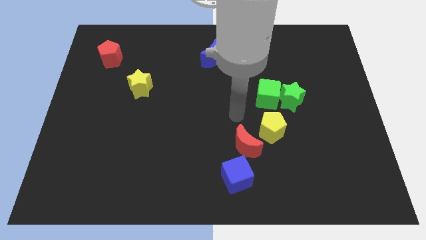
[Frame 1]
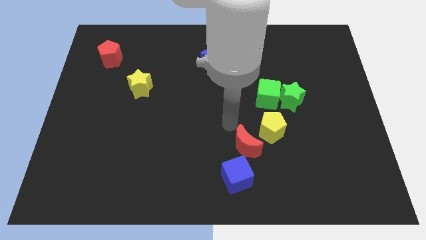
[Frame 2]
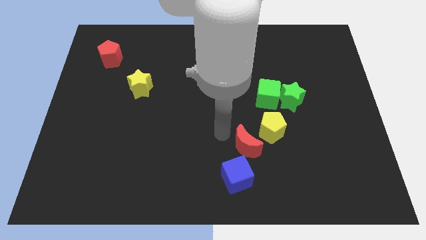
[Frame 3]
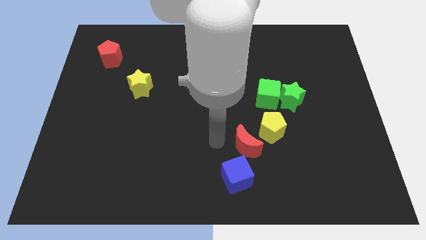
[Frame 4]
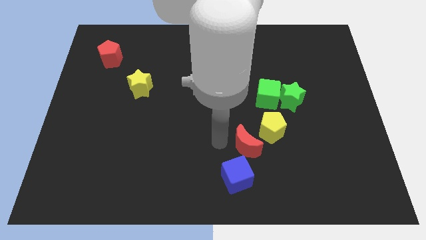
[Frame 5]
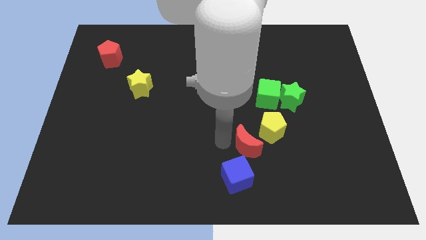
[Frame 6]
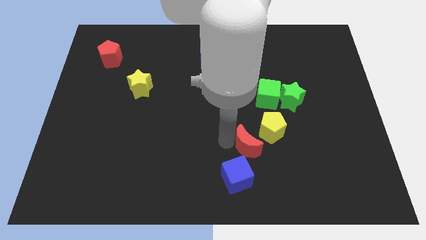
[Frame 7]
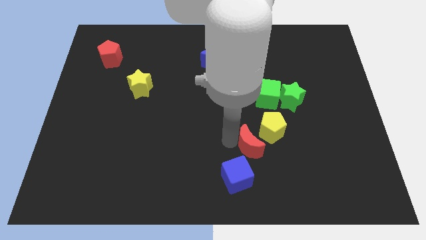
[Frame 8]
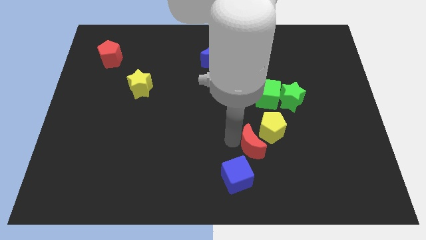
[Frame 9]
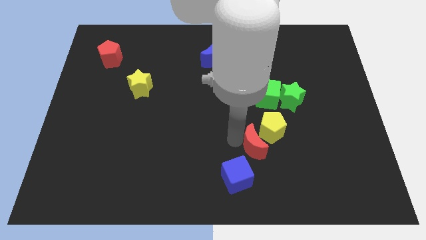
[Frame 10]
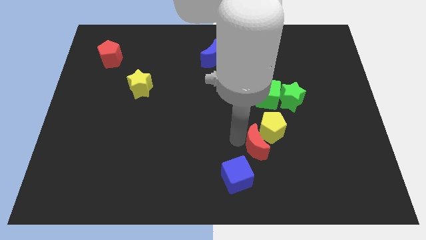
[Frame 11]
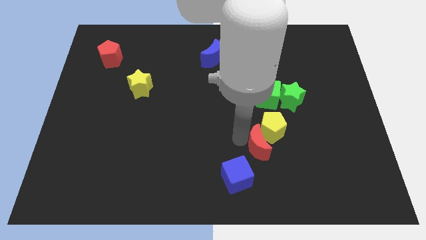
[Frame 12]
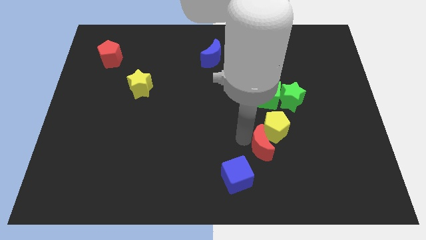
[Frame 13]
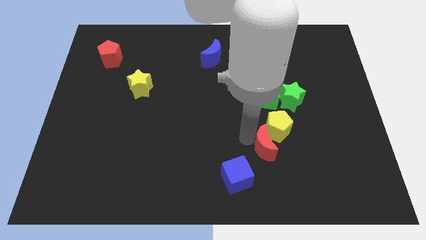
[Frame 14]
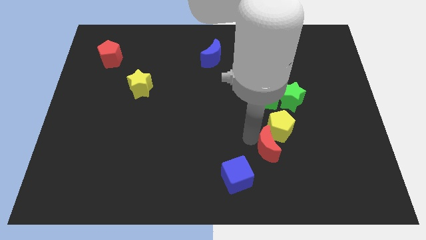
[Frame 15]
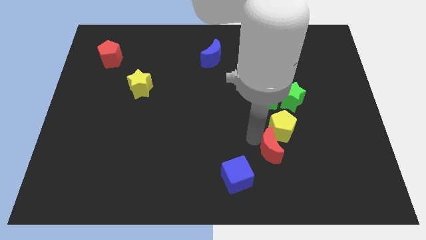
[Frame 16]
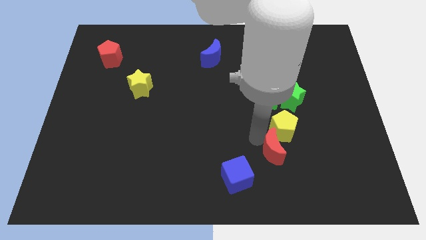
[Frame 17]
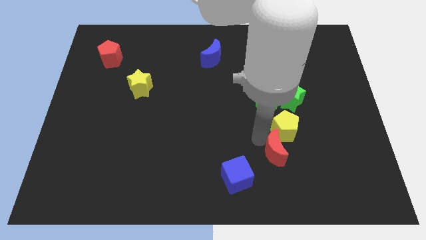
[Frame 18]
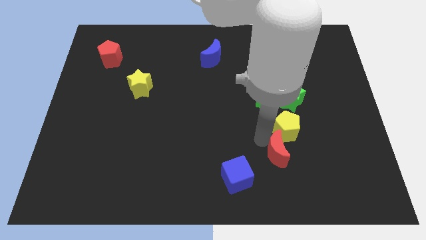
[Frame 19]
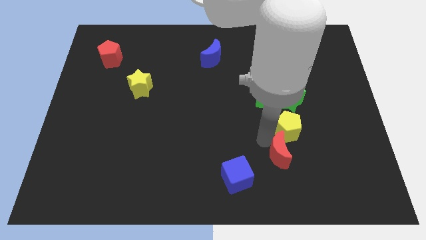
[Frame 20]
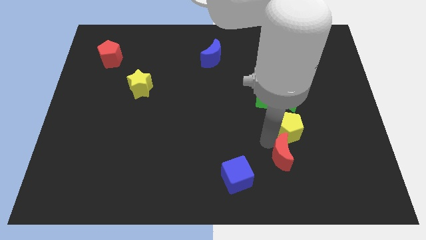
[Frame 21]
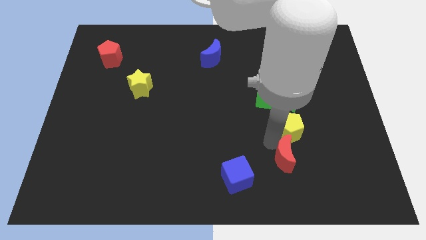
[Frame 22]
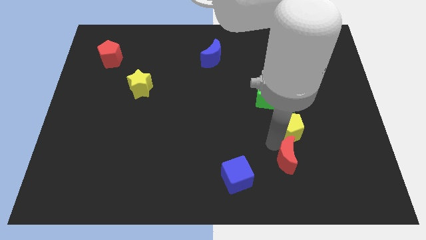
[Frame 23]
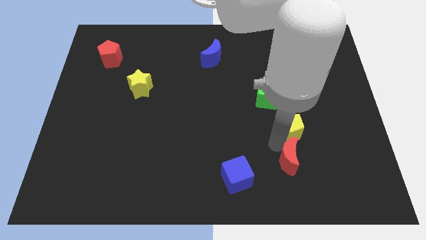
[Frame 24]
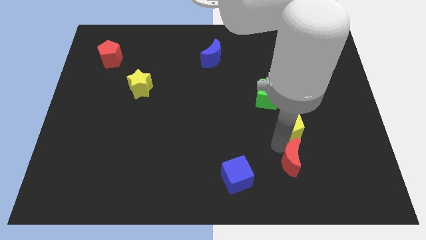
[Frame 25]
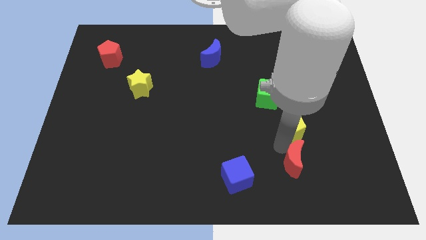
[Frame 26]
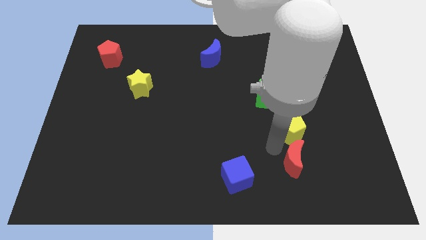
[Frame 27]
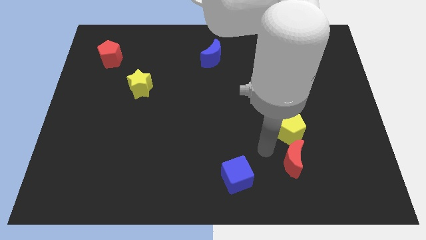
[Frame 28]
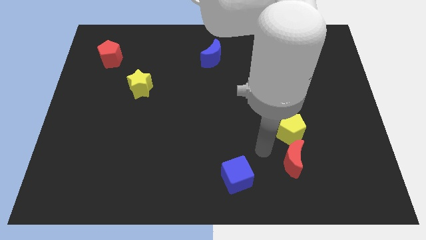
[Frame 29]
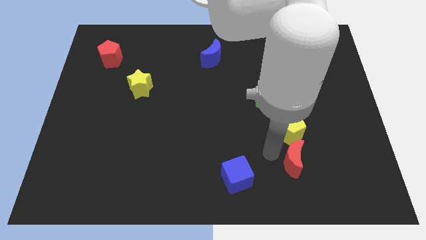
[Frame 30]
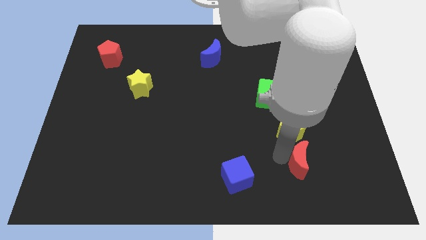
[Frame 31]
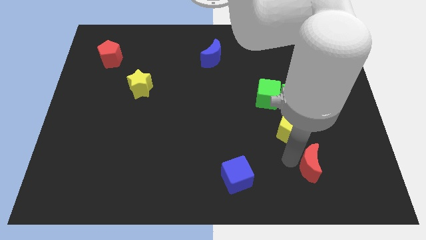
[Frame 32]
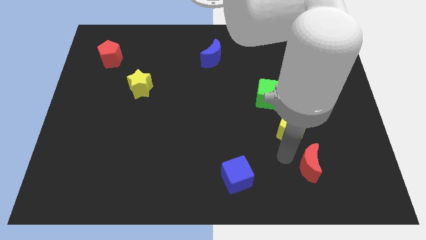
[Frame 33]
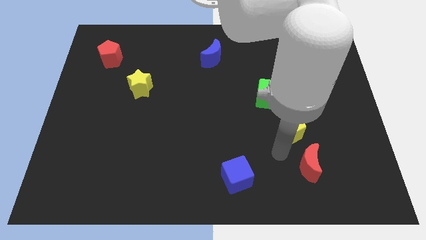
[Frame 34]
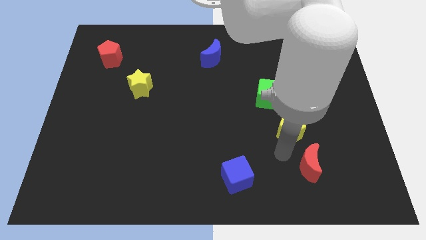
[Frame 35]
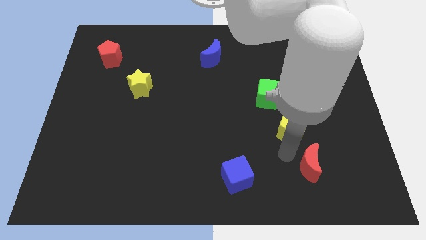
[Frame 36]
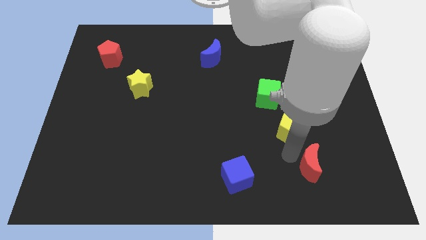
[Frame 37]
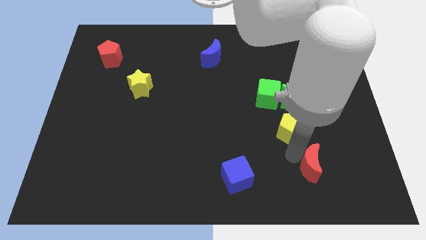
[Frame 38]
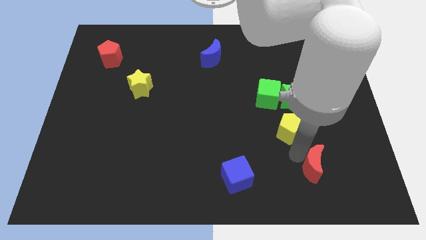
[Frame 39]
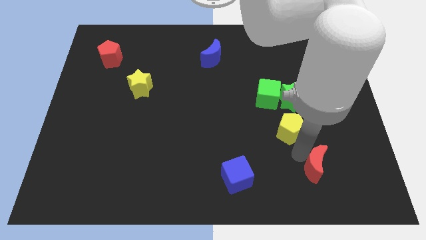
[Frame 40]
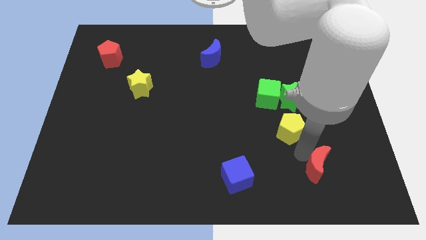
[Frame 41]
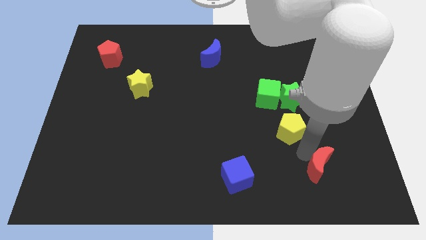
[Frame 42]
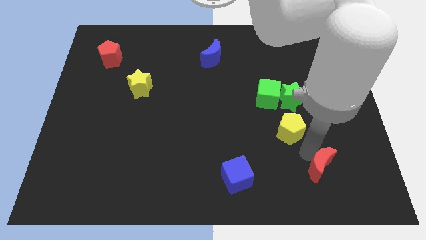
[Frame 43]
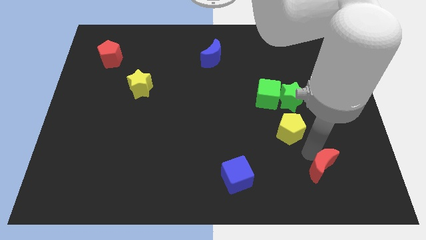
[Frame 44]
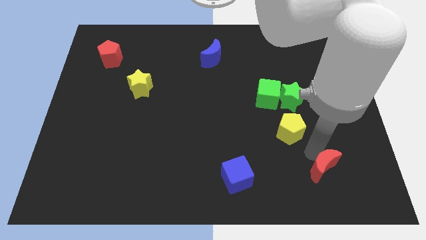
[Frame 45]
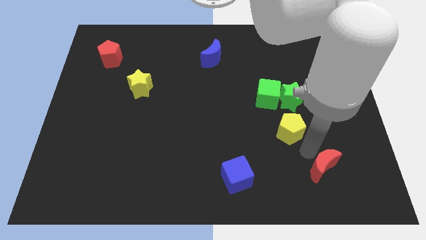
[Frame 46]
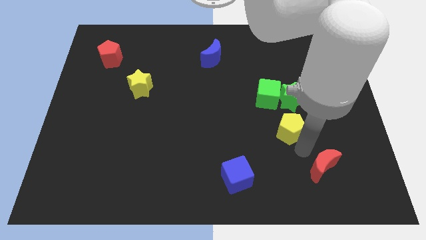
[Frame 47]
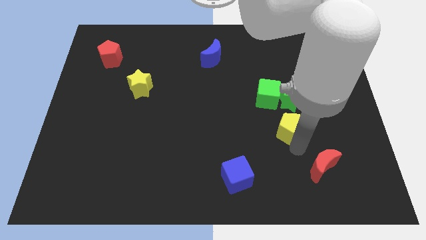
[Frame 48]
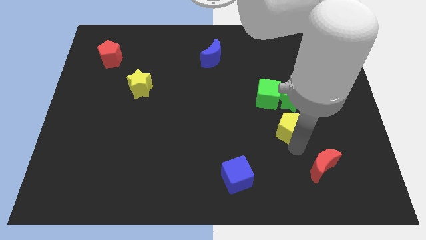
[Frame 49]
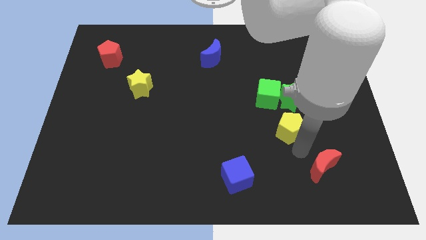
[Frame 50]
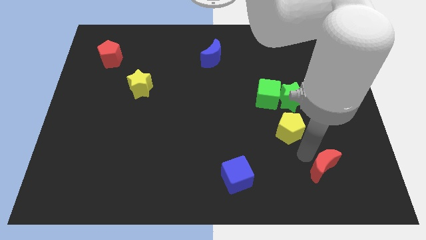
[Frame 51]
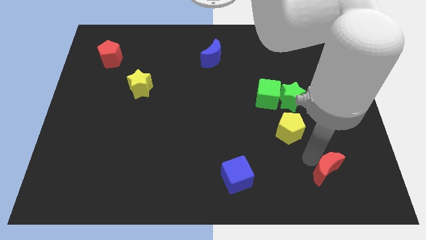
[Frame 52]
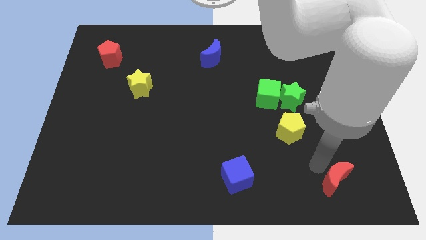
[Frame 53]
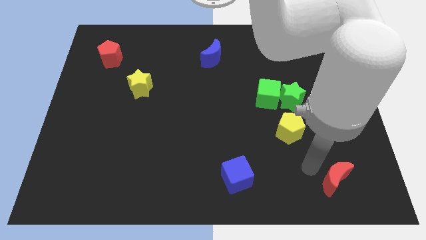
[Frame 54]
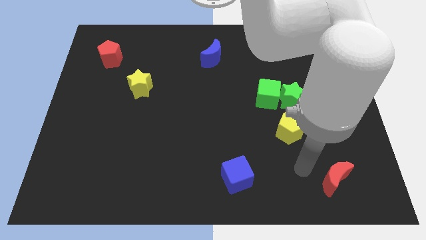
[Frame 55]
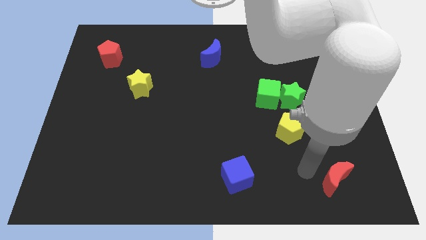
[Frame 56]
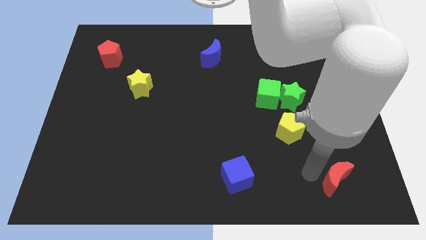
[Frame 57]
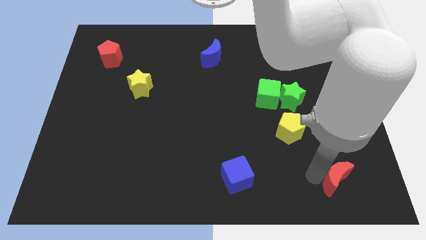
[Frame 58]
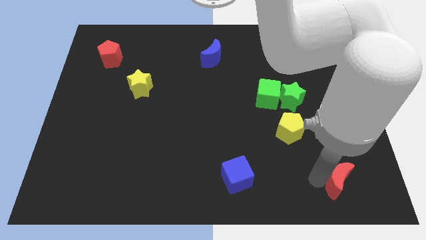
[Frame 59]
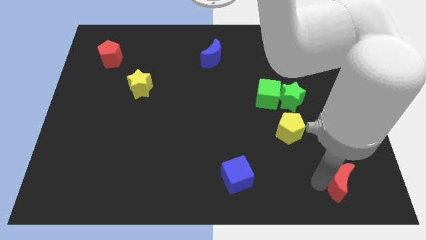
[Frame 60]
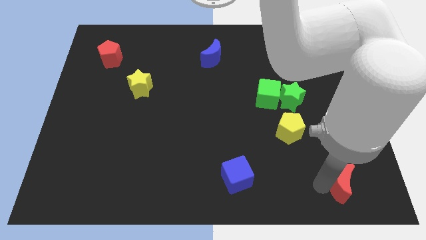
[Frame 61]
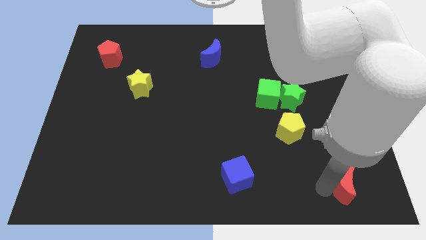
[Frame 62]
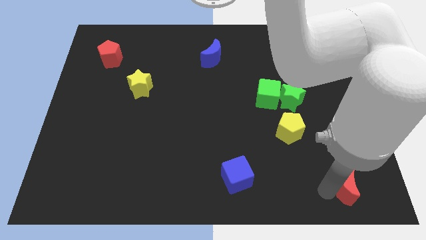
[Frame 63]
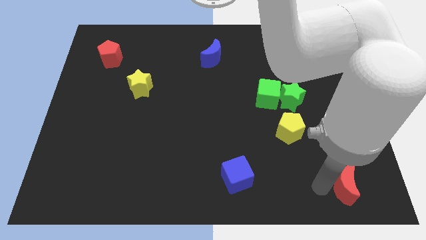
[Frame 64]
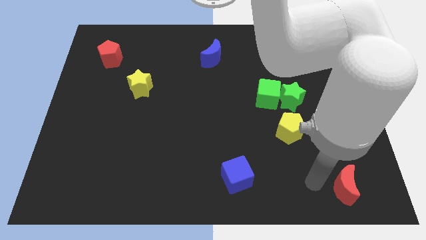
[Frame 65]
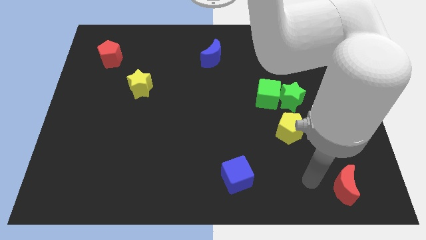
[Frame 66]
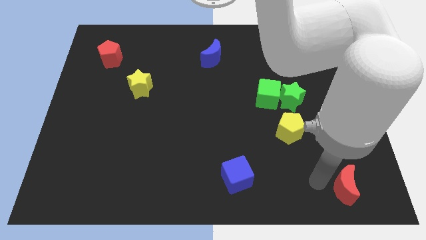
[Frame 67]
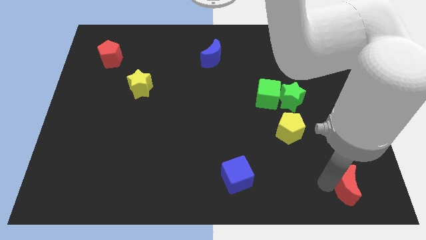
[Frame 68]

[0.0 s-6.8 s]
move the red moon to the bottom right
